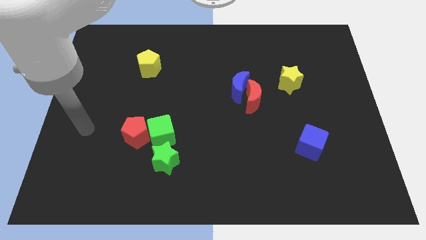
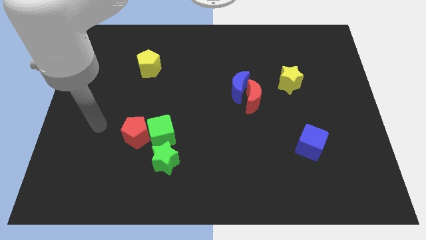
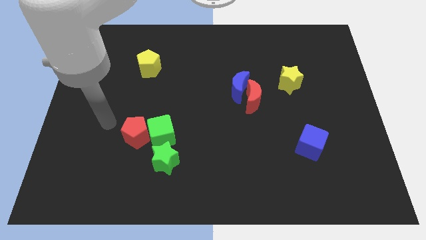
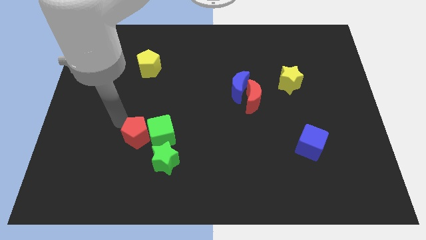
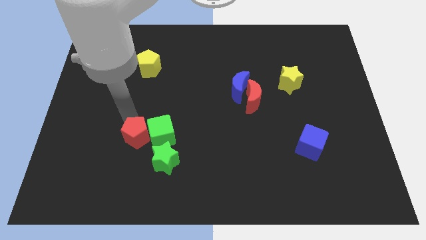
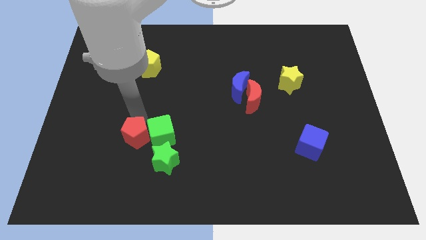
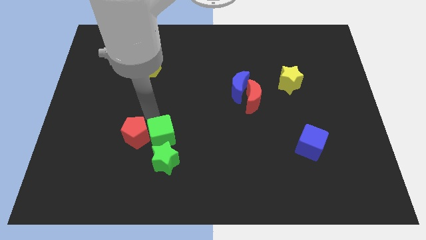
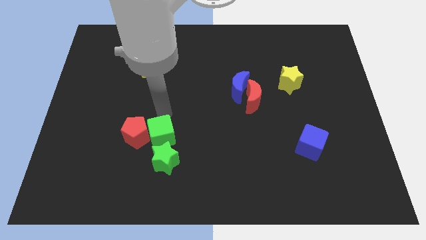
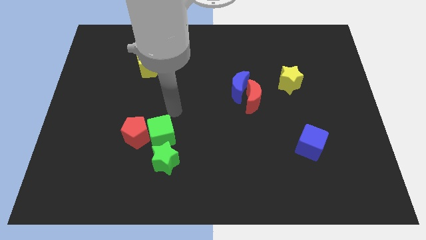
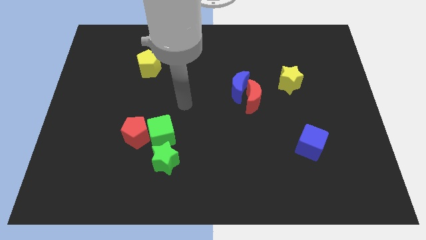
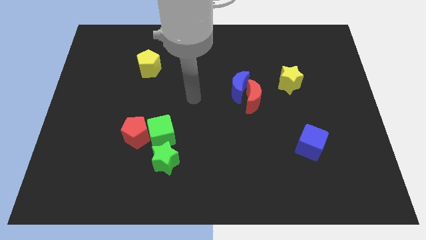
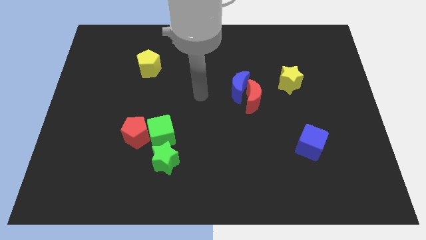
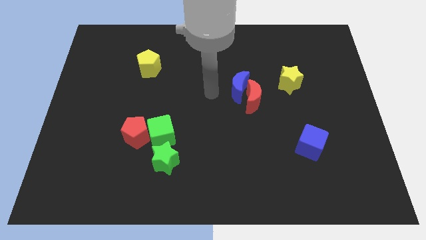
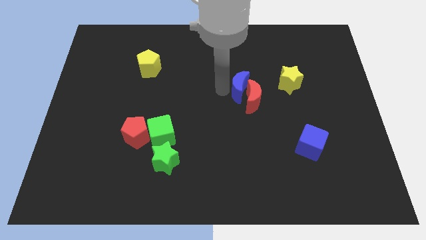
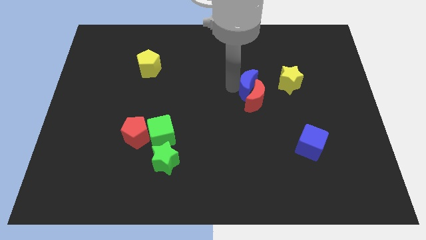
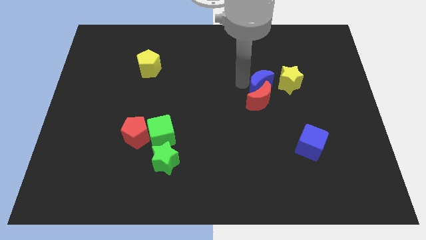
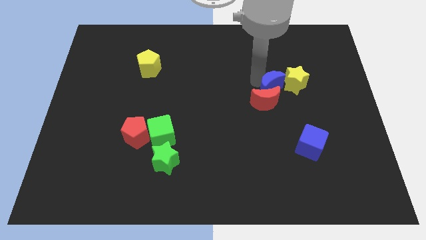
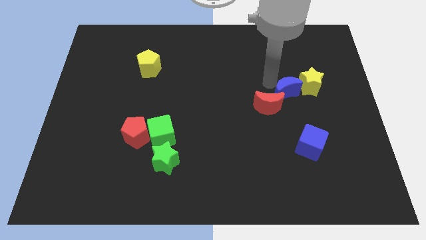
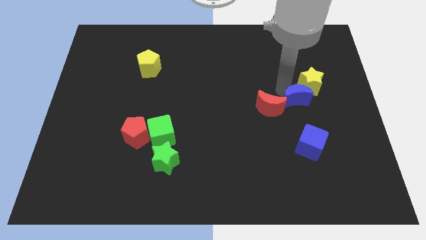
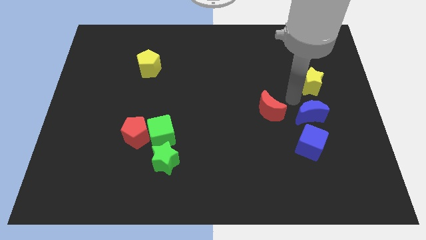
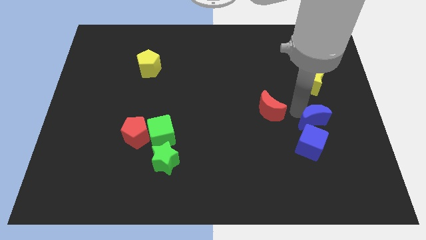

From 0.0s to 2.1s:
separate the red moon from the blue moon

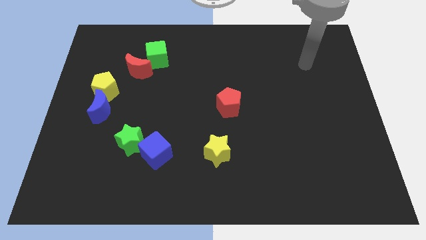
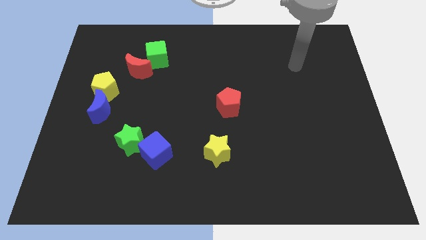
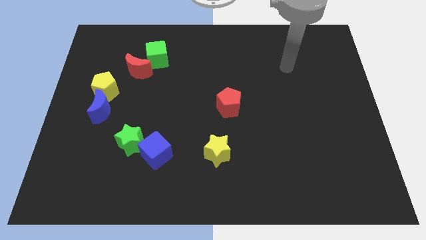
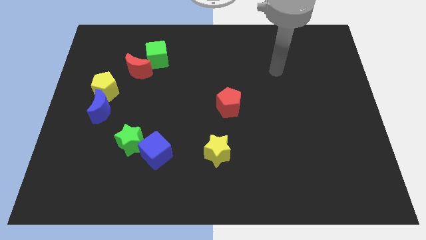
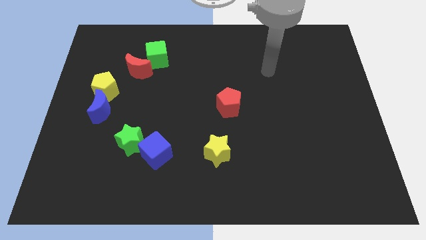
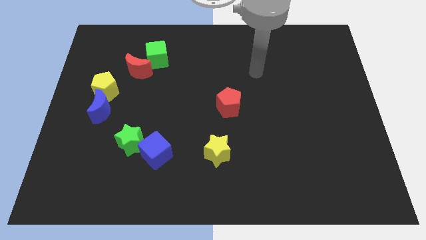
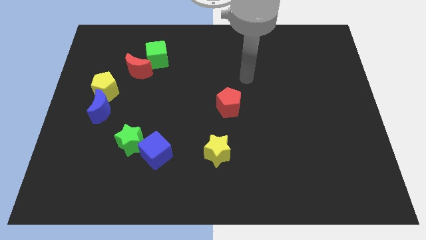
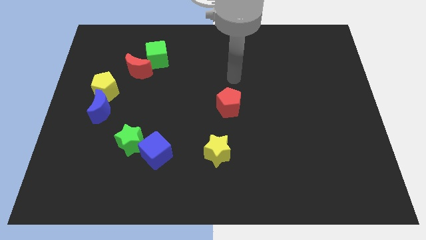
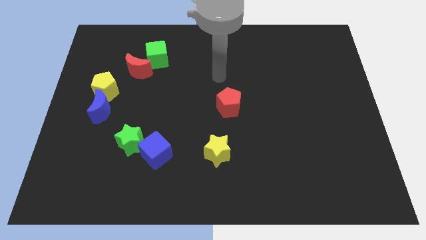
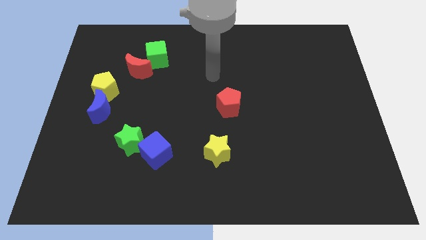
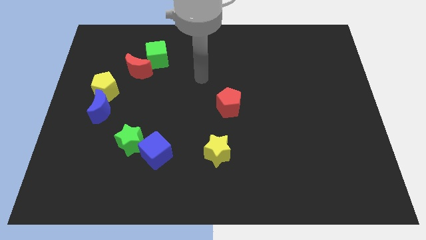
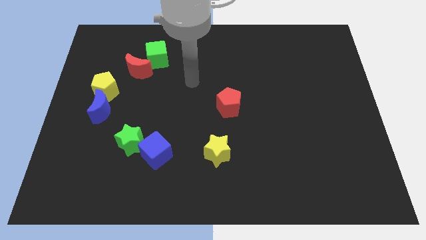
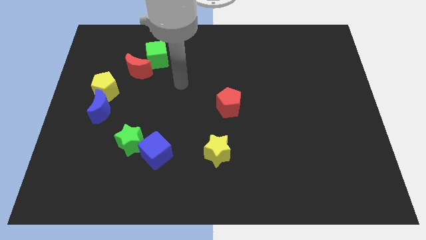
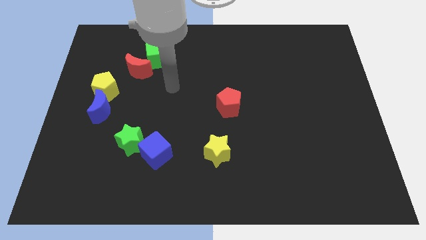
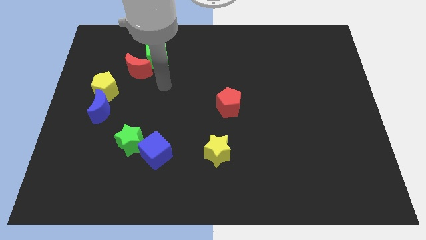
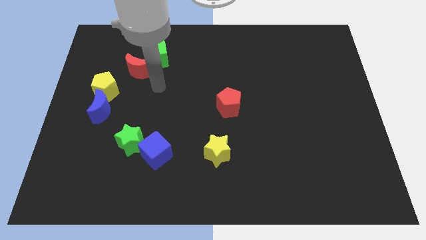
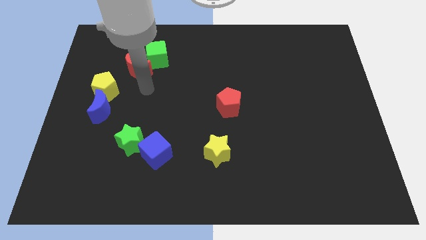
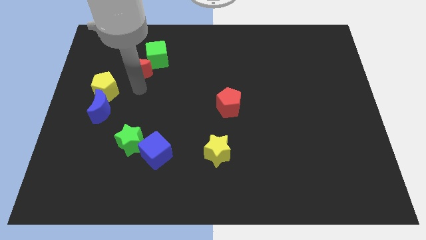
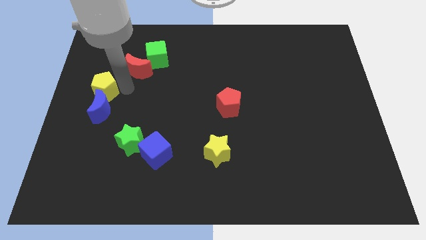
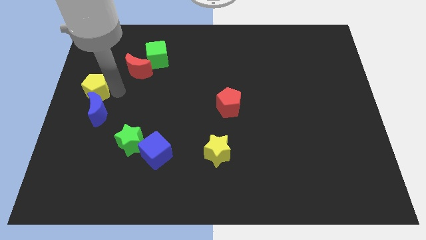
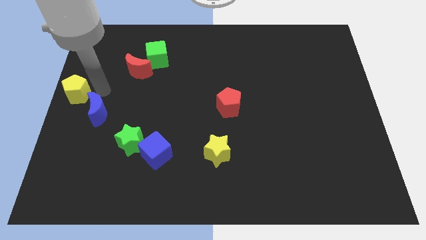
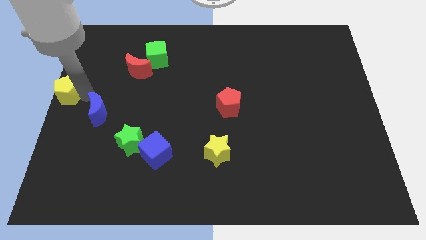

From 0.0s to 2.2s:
pull the blue moon apart from the yellow pentagon

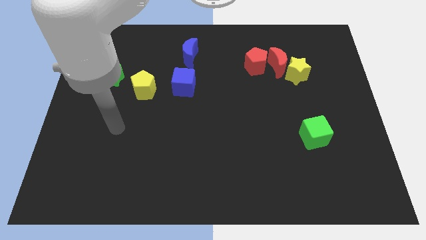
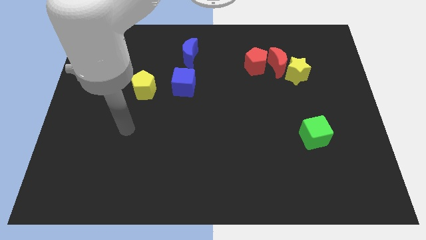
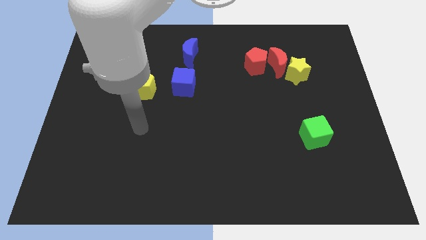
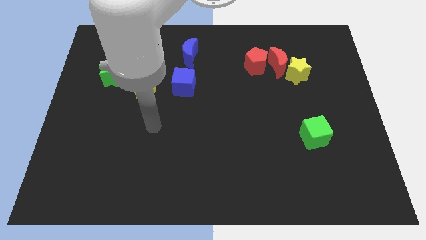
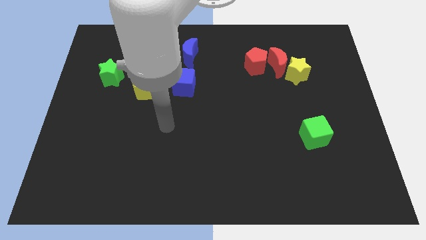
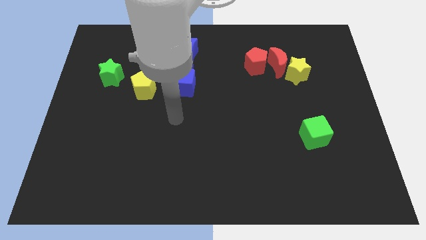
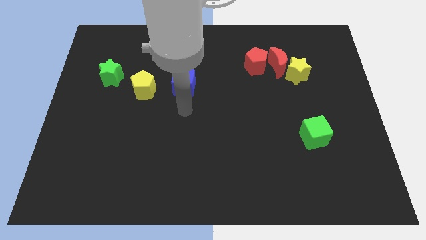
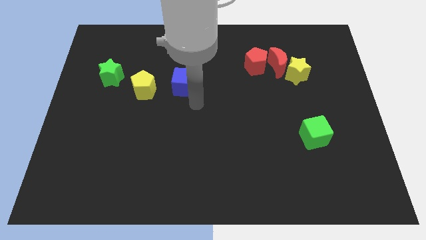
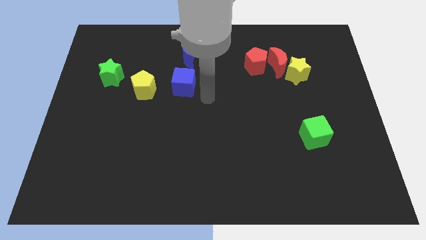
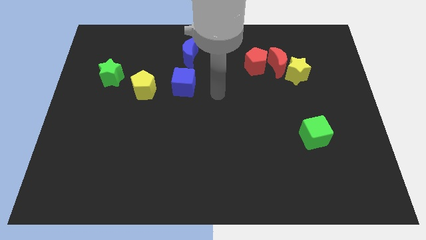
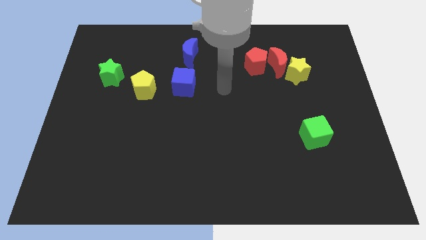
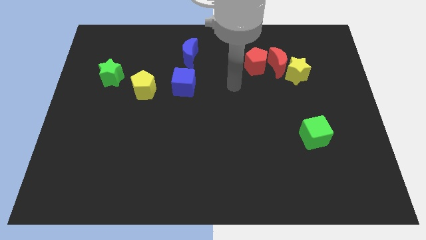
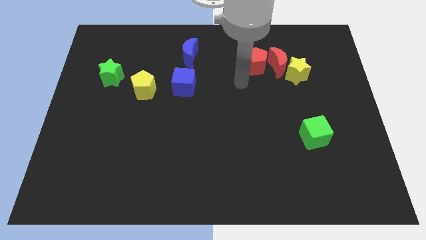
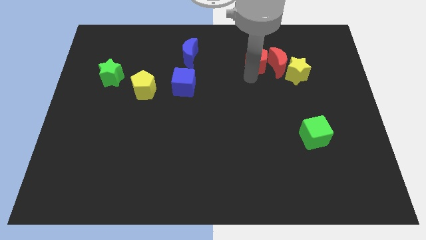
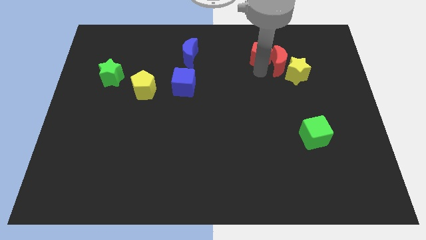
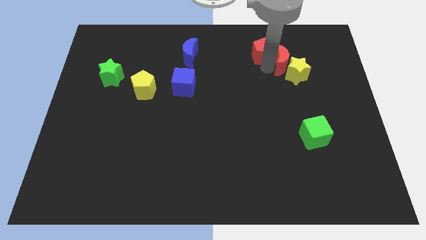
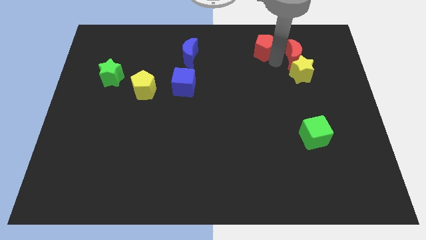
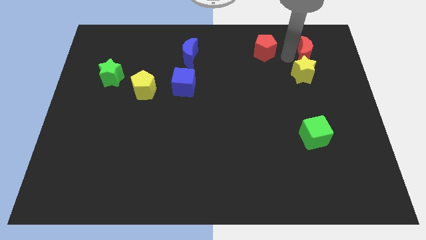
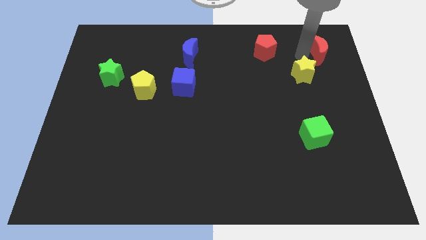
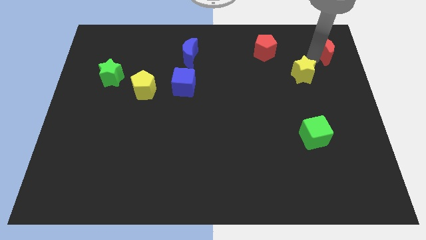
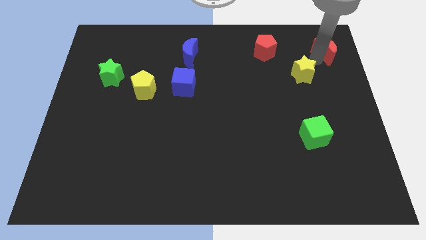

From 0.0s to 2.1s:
pull the yellow star apart from the red moon

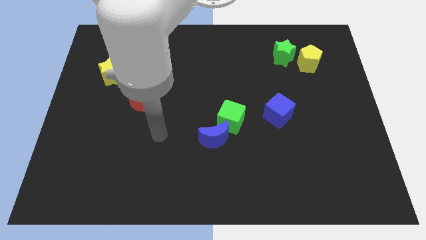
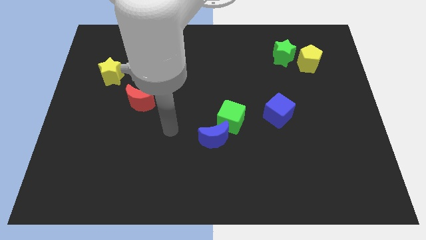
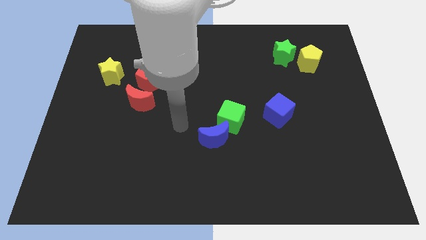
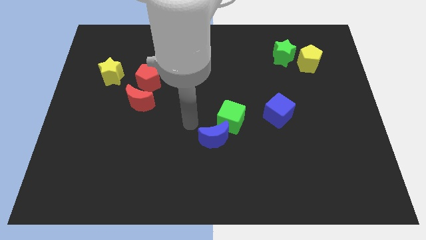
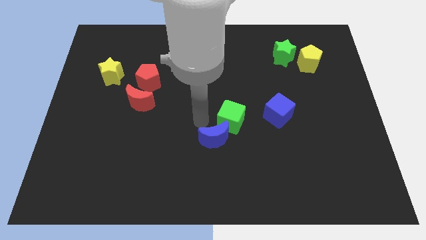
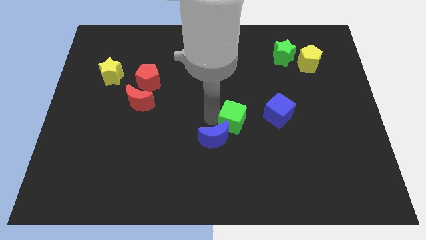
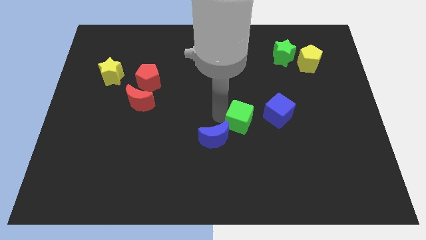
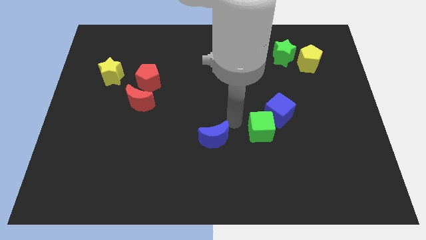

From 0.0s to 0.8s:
move the blue moon away from the green cube

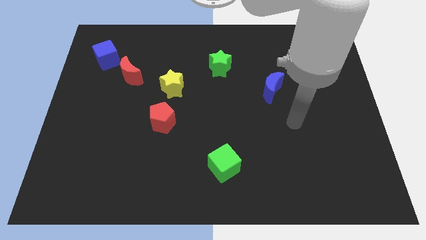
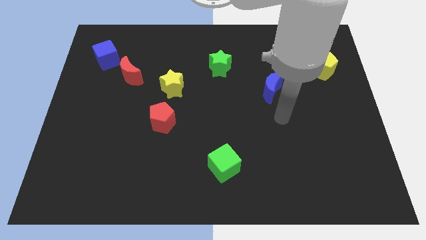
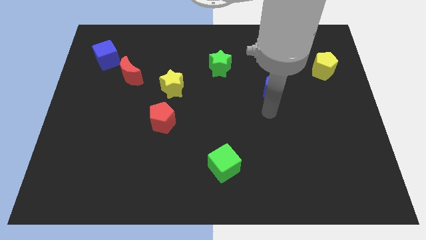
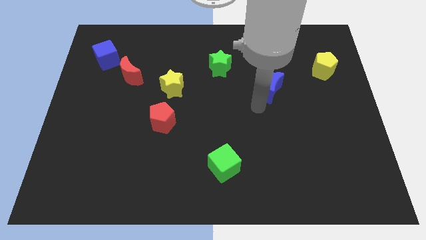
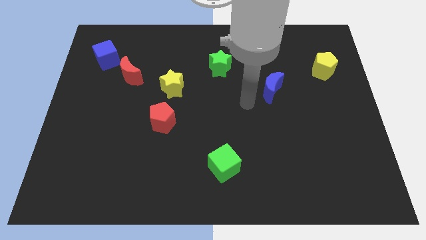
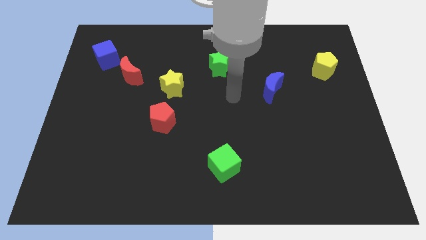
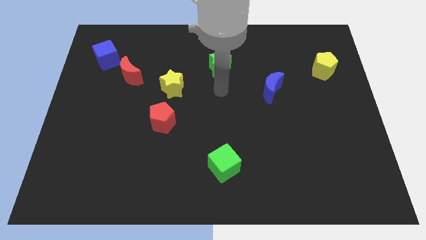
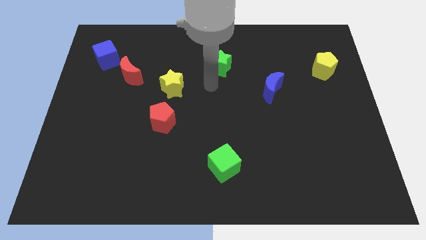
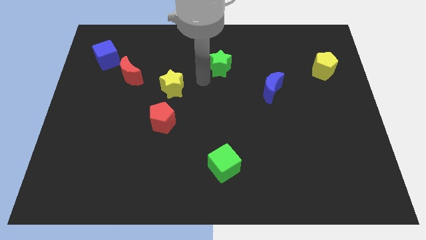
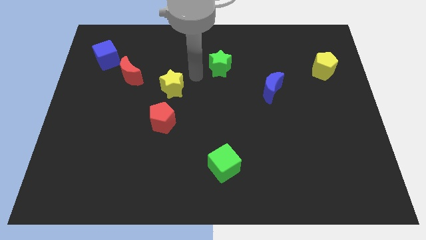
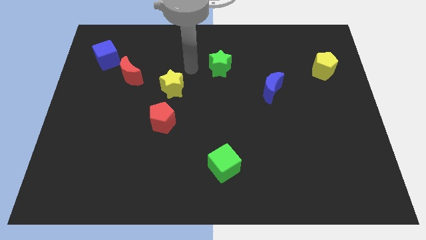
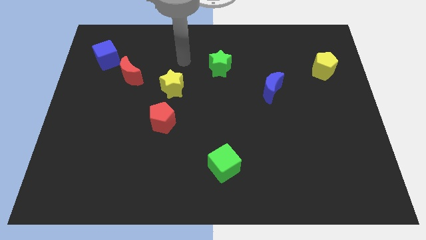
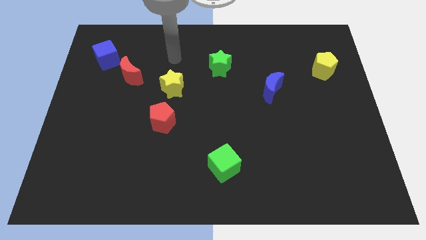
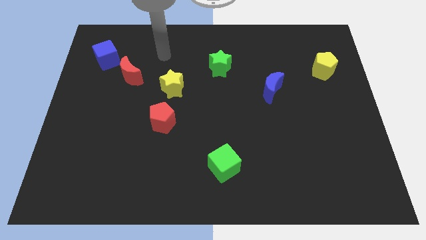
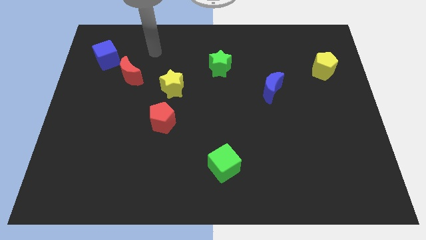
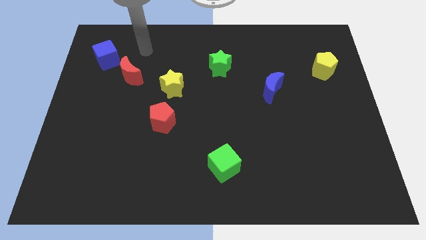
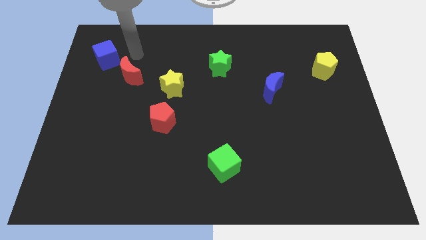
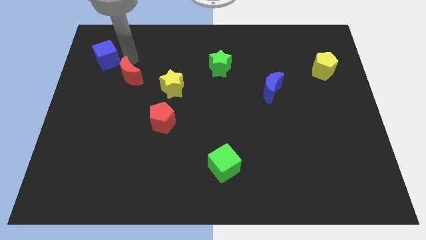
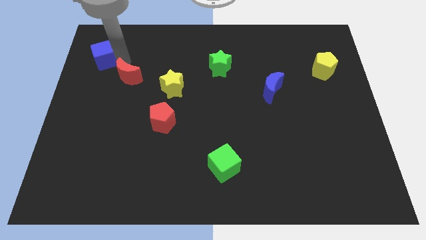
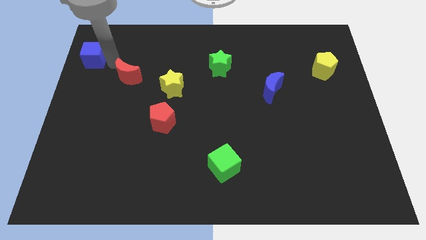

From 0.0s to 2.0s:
move the red moon away from the blue cube
